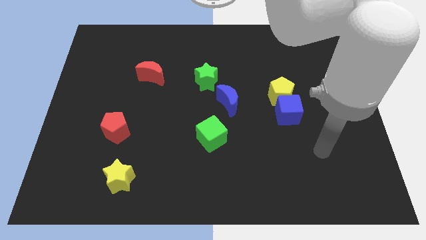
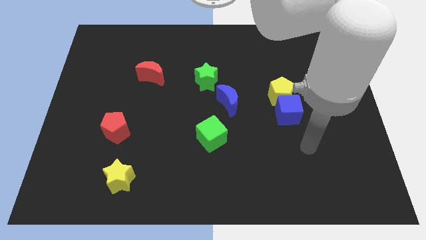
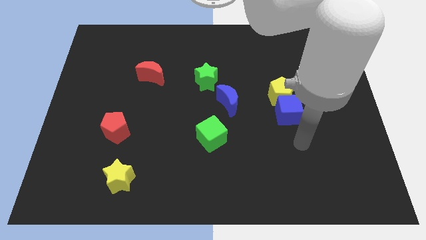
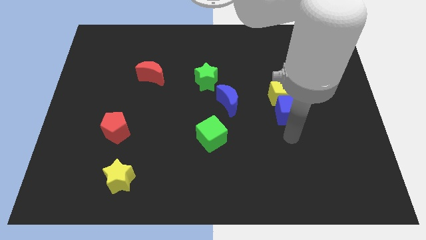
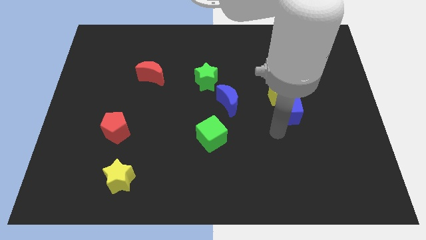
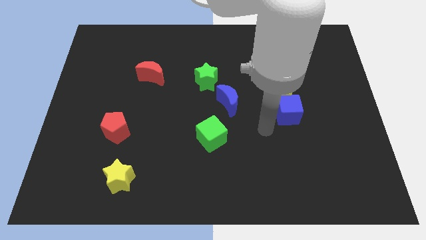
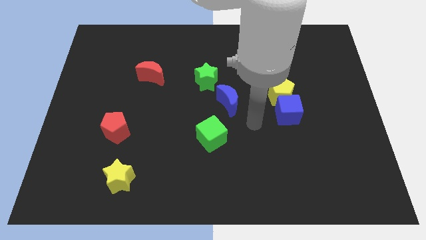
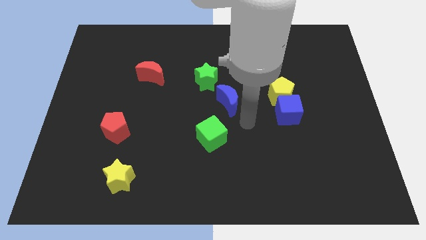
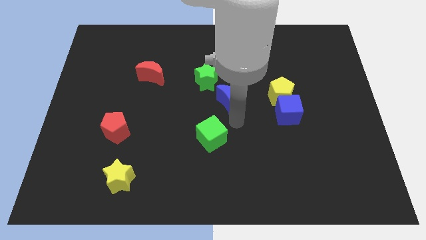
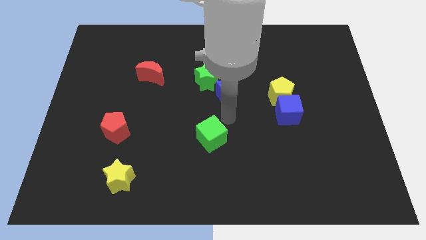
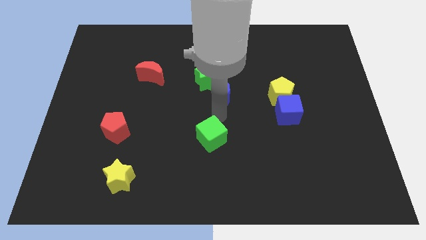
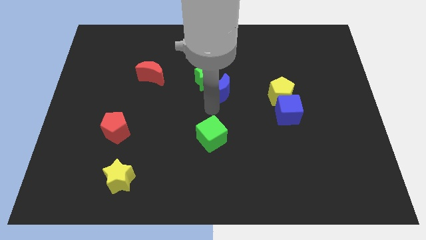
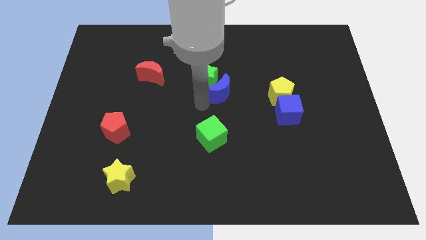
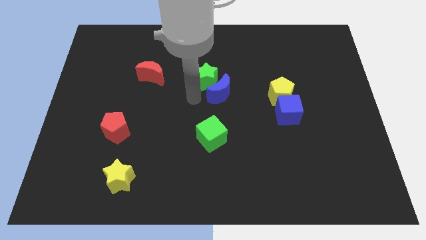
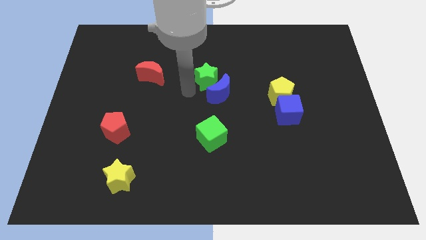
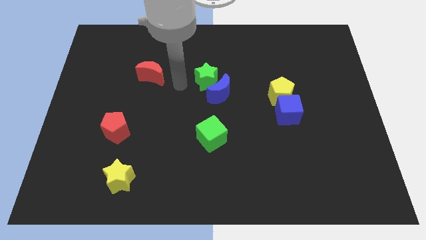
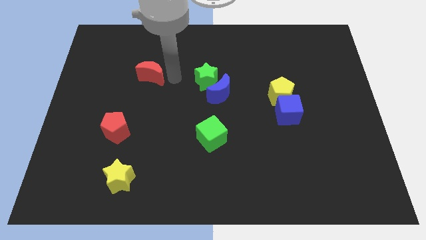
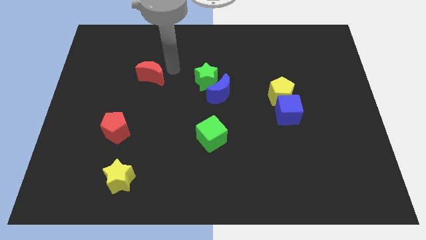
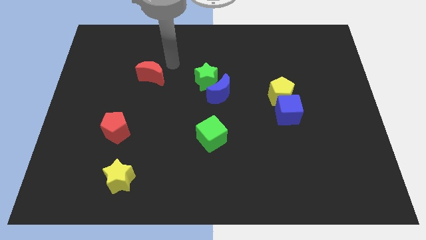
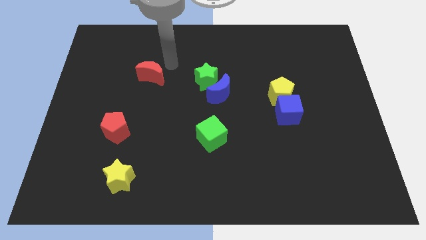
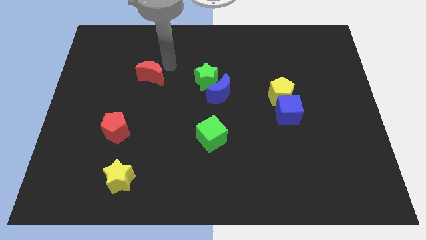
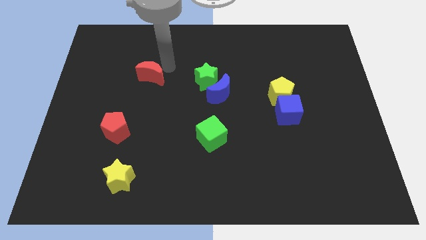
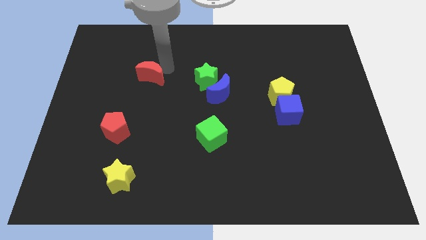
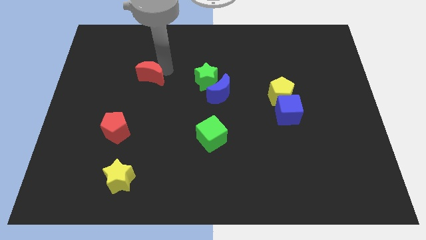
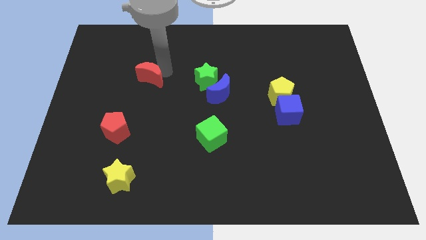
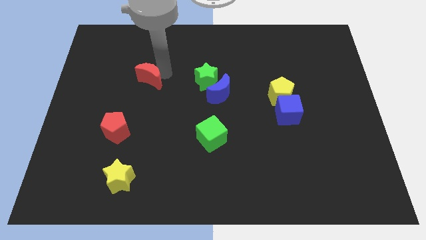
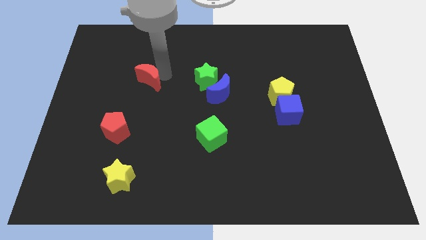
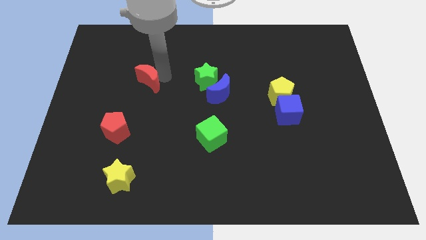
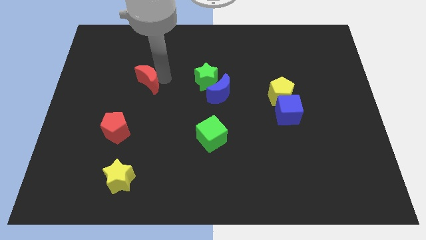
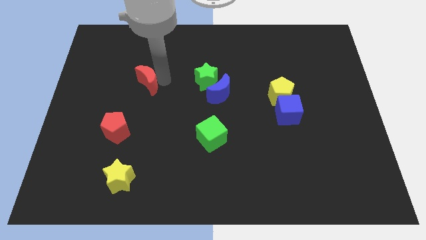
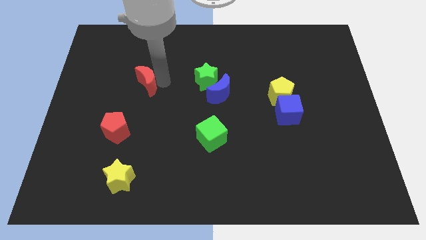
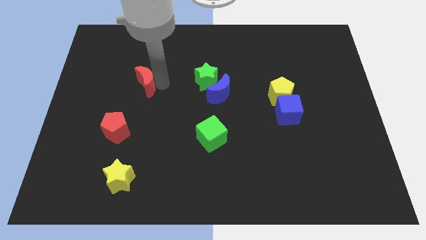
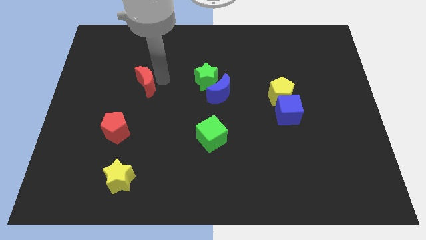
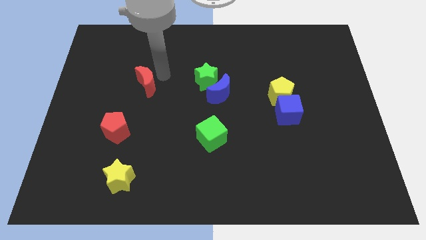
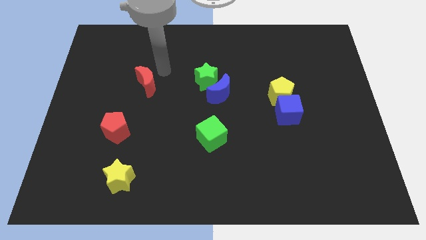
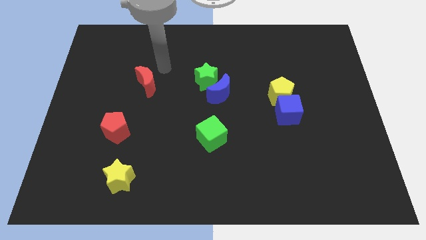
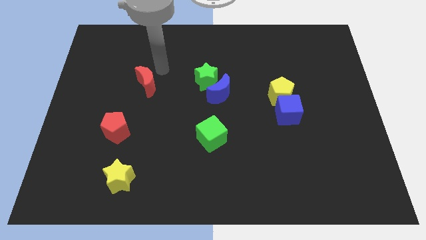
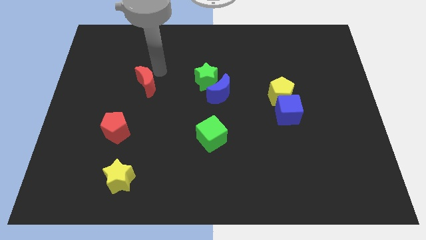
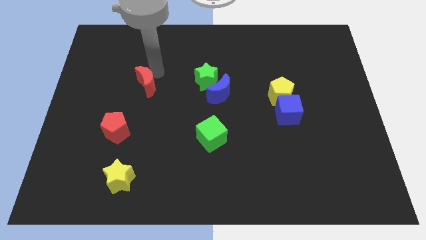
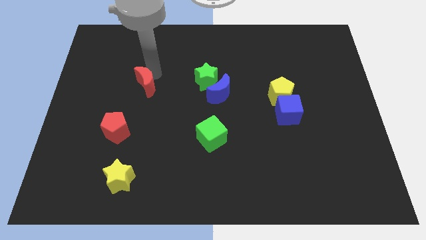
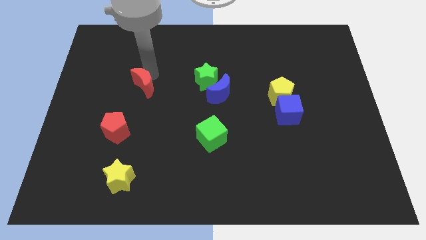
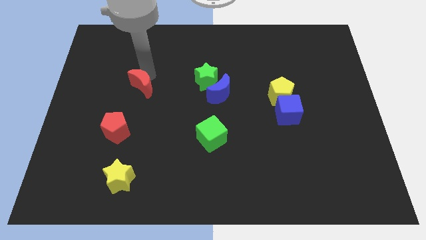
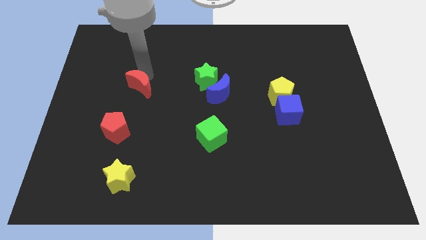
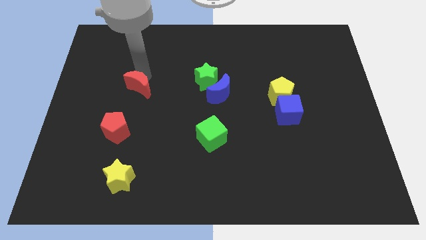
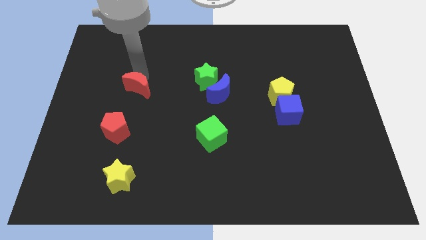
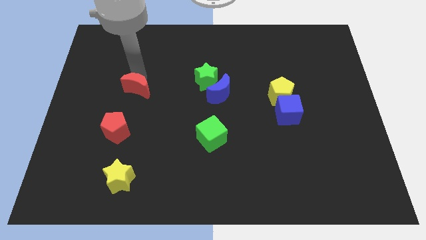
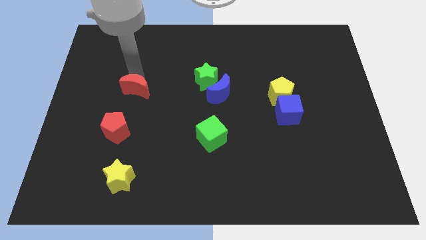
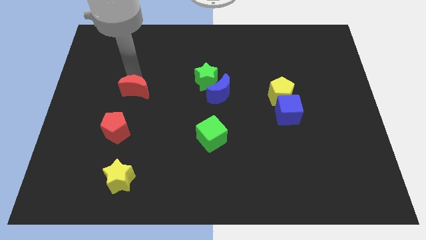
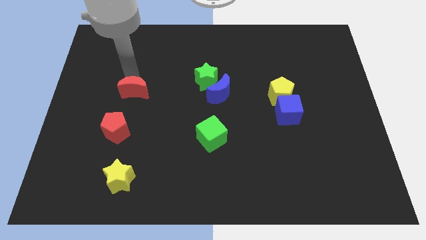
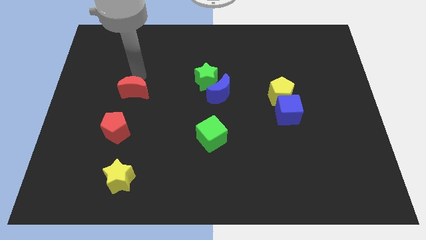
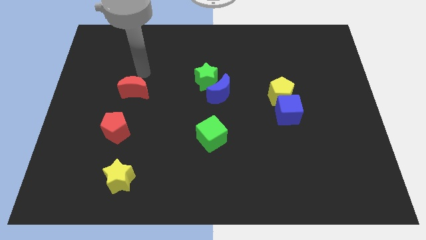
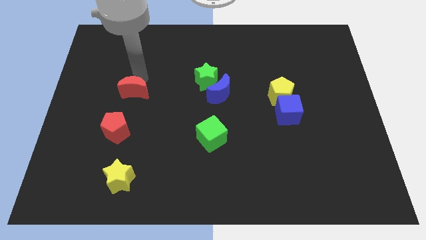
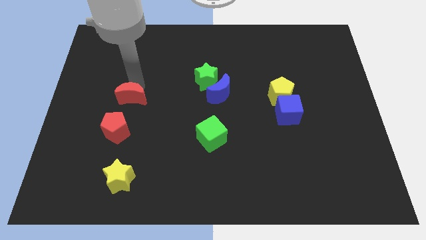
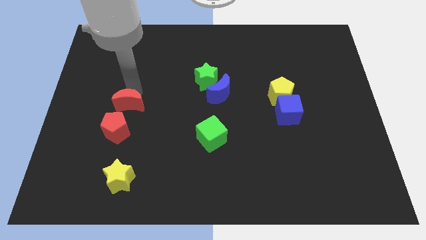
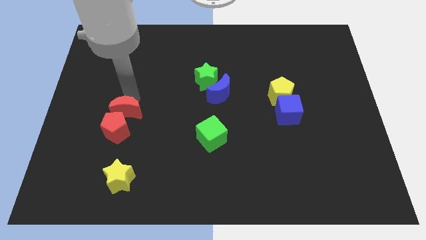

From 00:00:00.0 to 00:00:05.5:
put the red moon to the red pentagon
